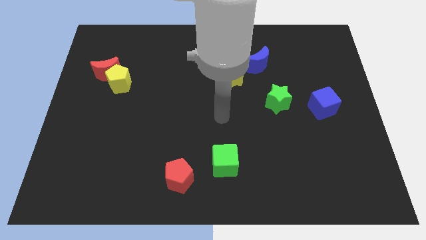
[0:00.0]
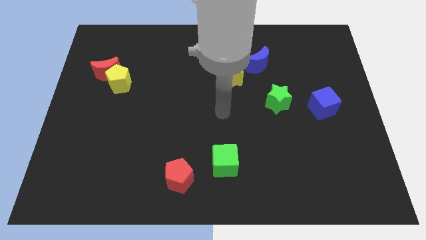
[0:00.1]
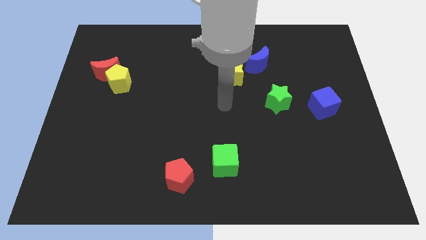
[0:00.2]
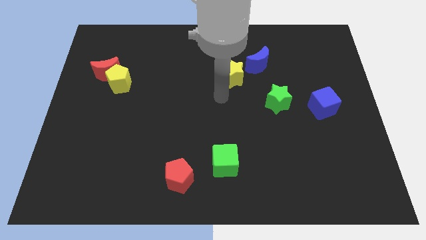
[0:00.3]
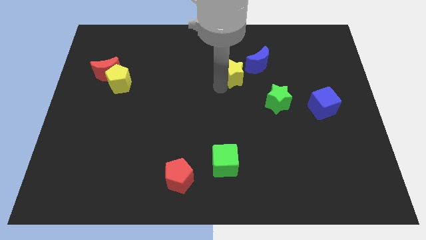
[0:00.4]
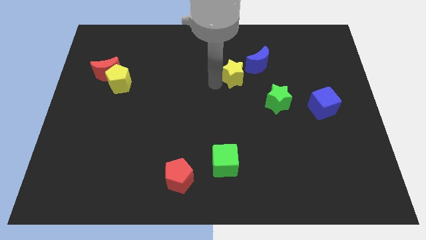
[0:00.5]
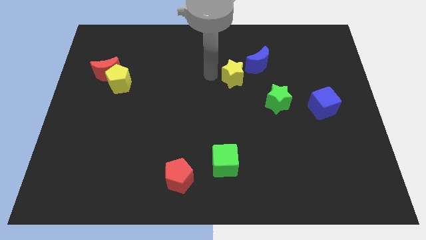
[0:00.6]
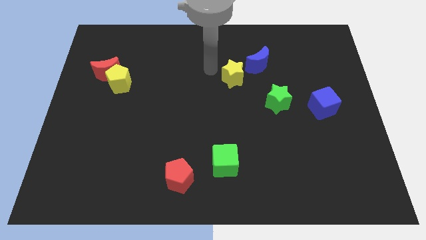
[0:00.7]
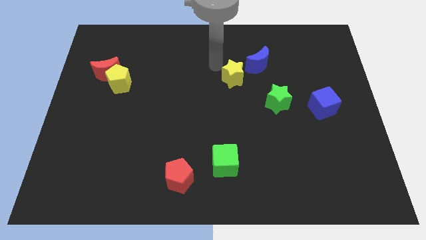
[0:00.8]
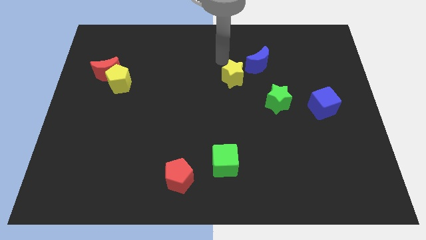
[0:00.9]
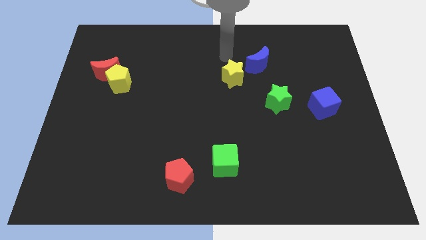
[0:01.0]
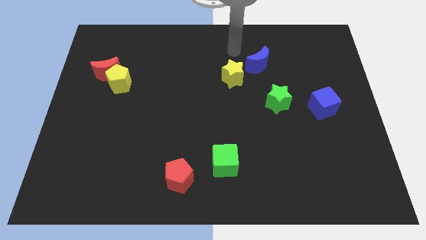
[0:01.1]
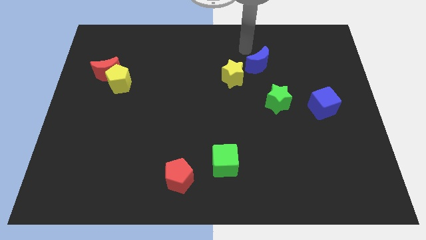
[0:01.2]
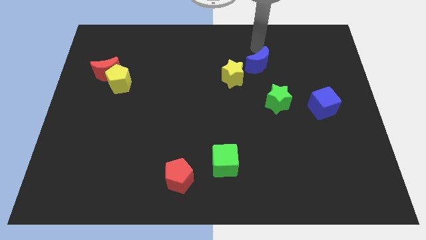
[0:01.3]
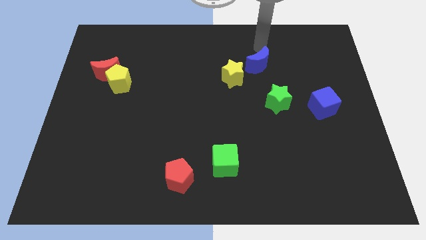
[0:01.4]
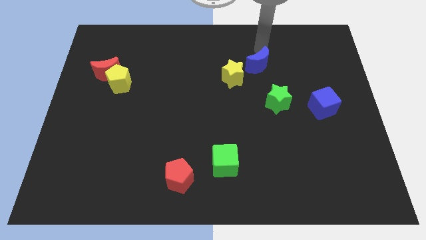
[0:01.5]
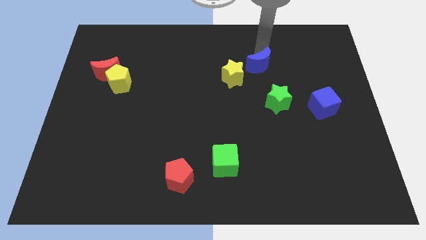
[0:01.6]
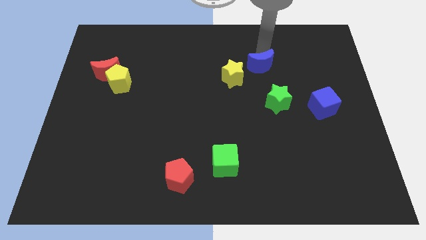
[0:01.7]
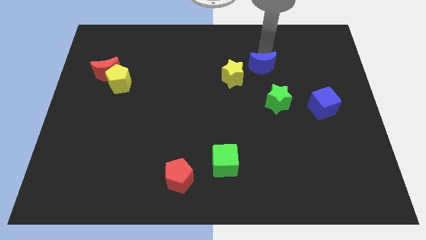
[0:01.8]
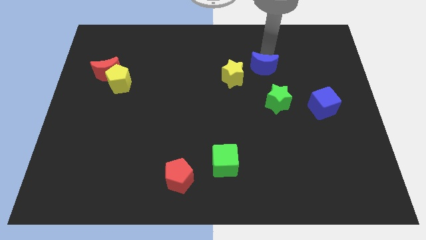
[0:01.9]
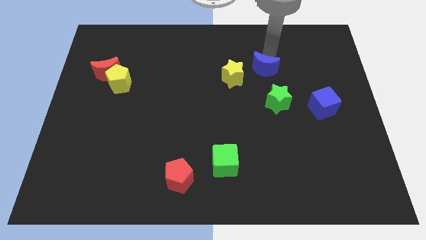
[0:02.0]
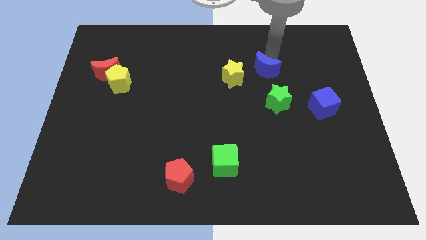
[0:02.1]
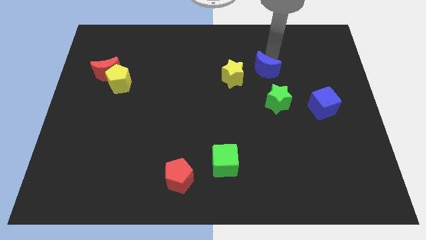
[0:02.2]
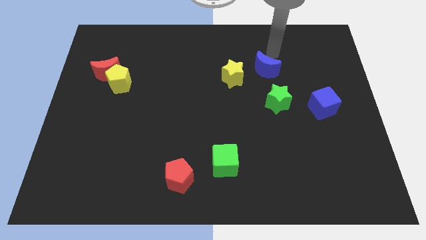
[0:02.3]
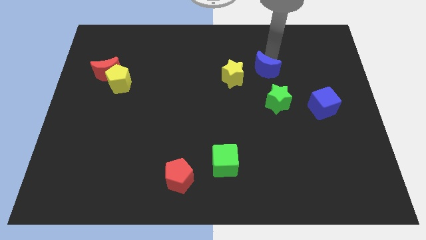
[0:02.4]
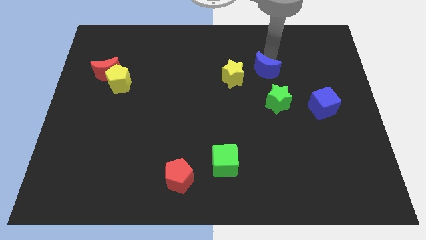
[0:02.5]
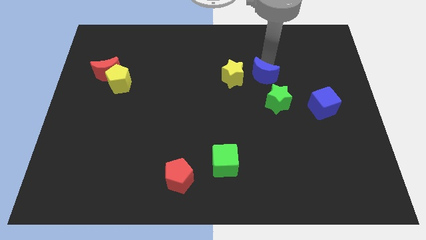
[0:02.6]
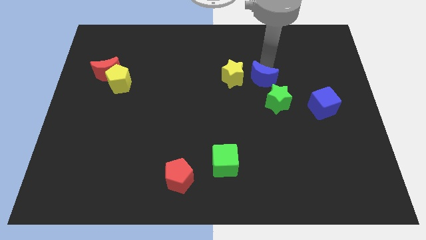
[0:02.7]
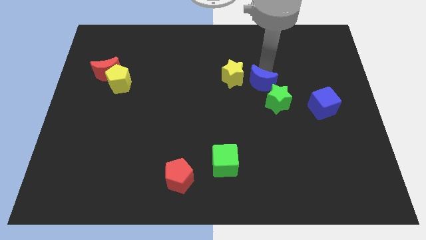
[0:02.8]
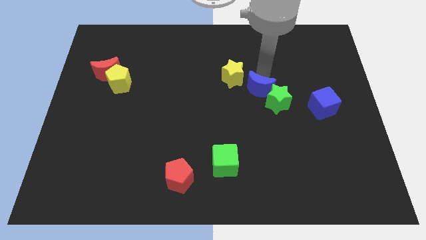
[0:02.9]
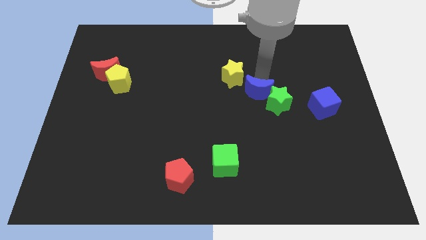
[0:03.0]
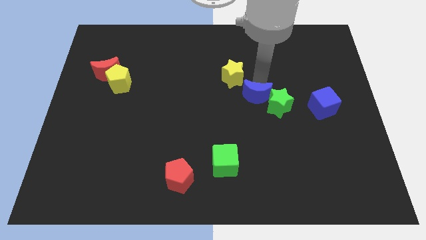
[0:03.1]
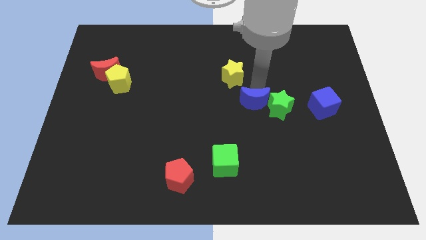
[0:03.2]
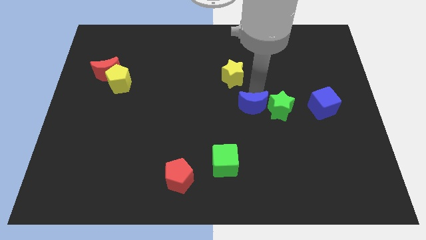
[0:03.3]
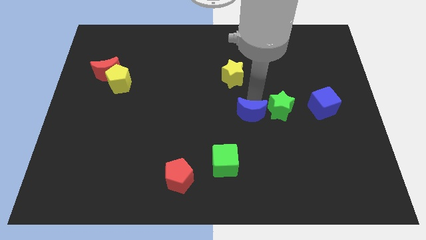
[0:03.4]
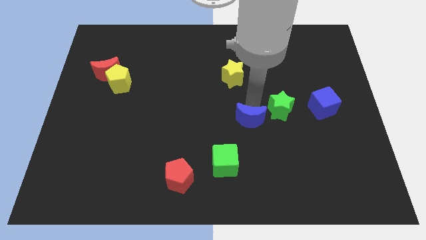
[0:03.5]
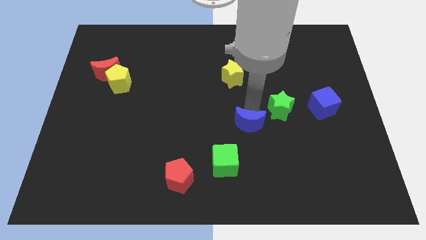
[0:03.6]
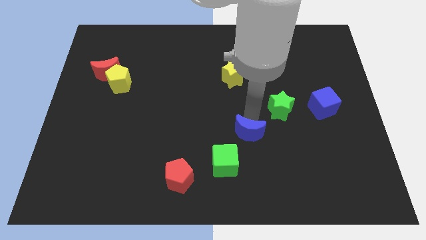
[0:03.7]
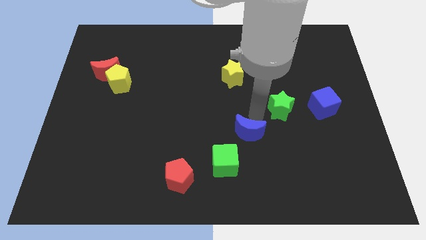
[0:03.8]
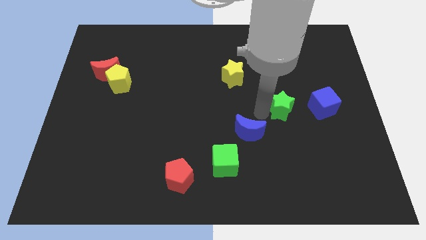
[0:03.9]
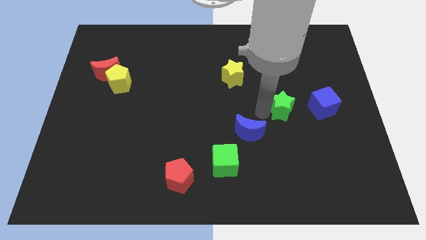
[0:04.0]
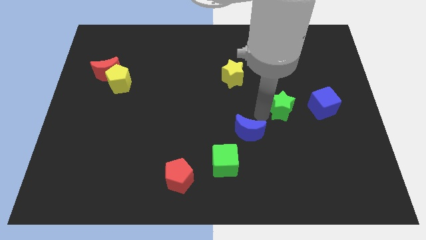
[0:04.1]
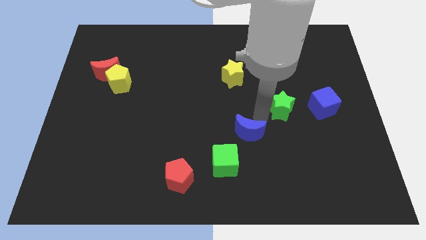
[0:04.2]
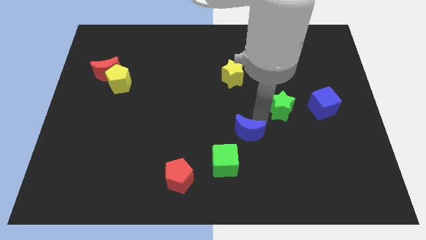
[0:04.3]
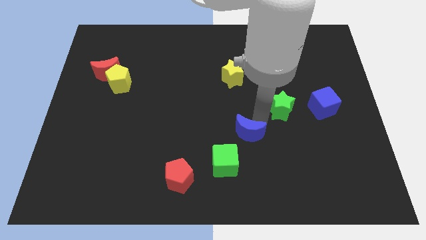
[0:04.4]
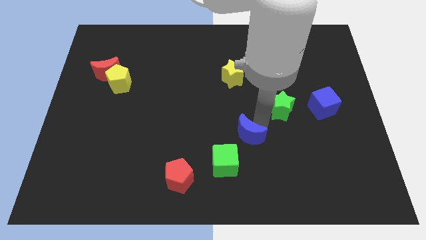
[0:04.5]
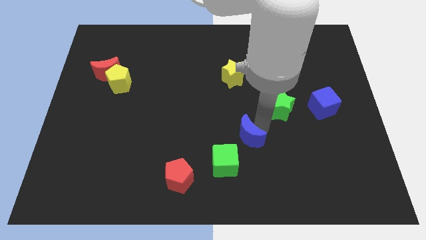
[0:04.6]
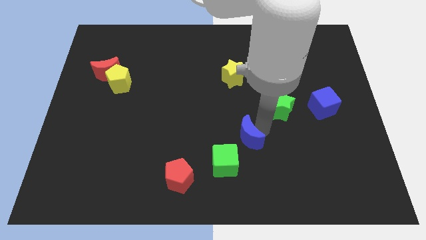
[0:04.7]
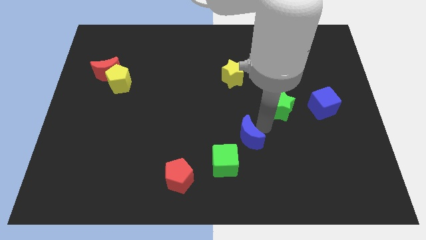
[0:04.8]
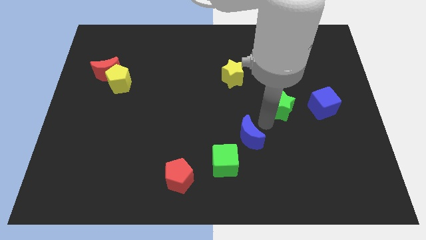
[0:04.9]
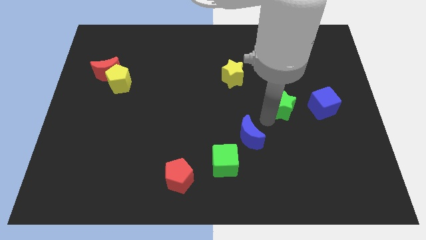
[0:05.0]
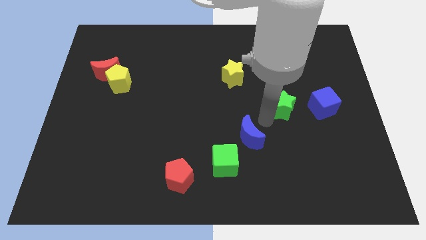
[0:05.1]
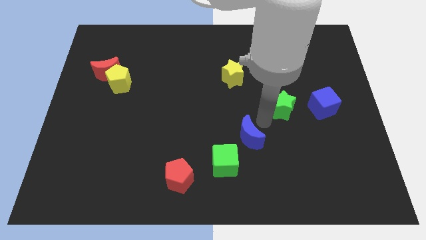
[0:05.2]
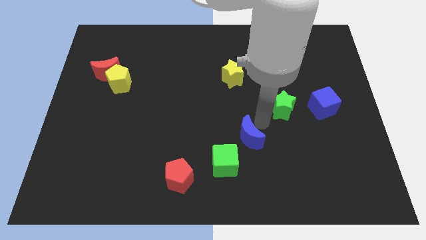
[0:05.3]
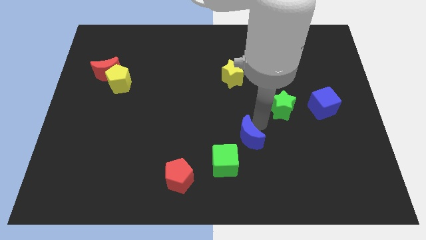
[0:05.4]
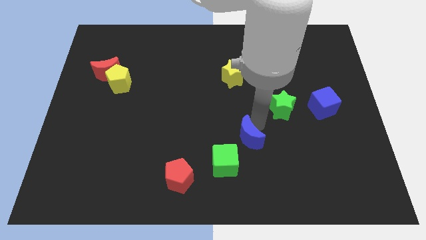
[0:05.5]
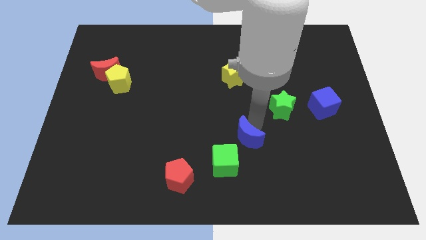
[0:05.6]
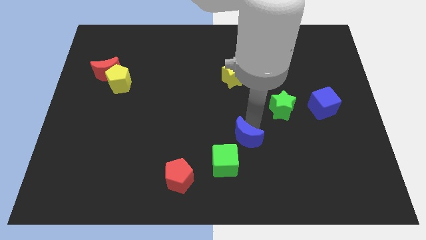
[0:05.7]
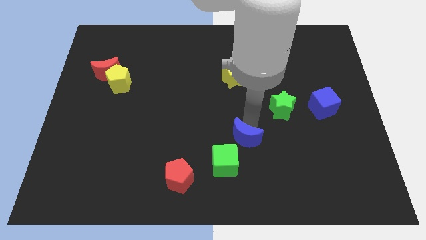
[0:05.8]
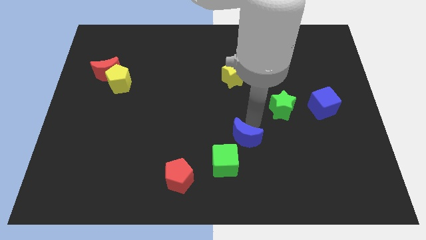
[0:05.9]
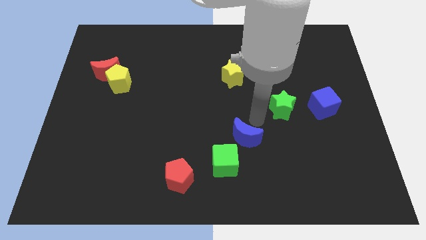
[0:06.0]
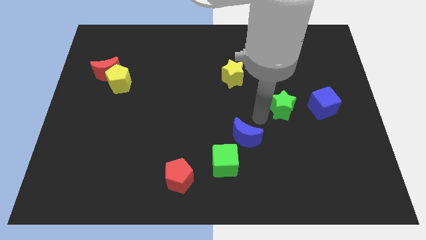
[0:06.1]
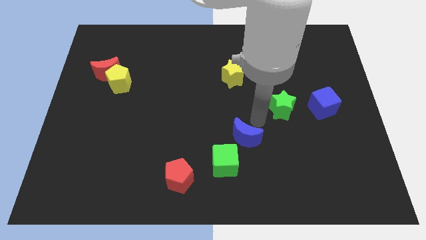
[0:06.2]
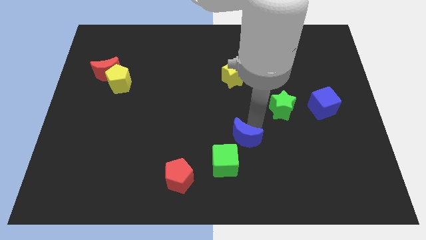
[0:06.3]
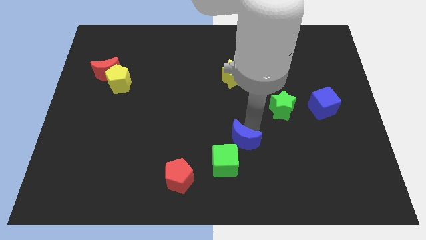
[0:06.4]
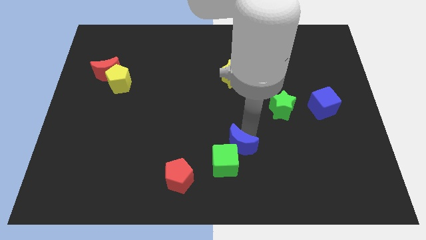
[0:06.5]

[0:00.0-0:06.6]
move the blue moon to the green cube
